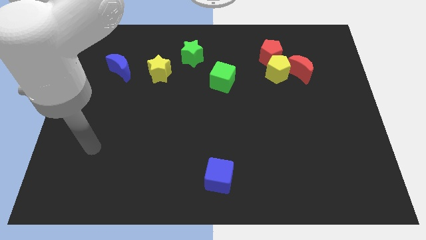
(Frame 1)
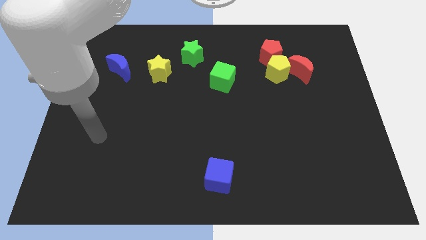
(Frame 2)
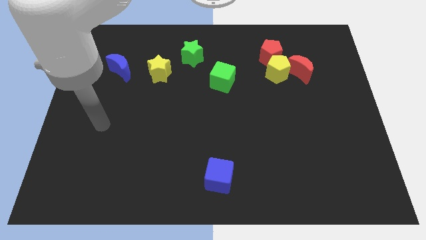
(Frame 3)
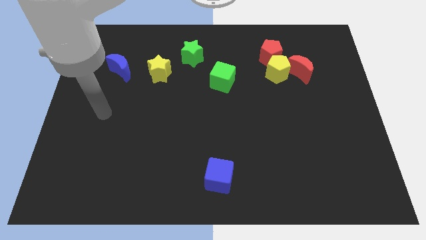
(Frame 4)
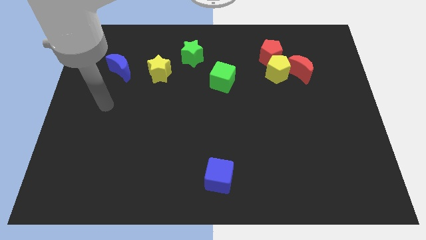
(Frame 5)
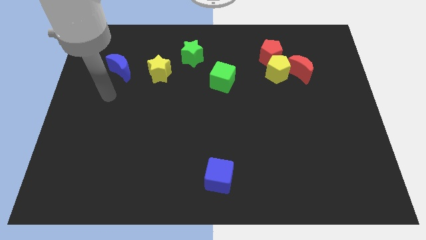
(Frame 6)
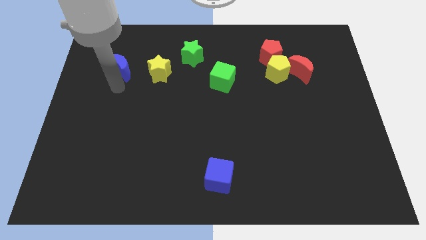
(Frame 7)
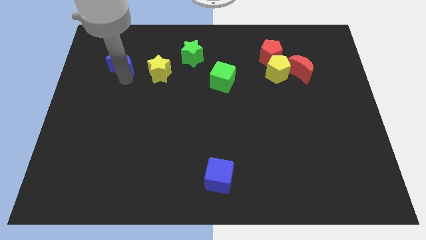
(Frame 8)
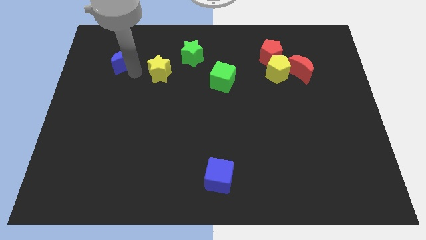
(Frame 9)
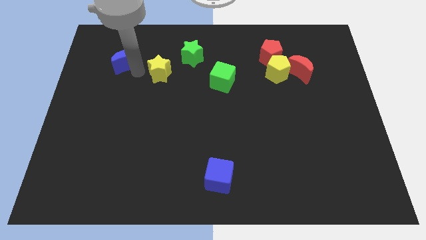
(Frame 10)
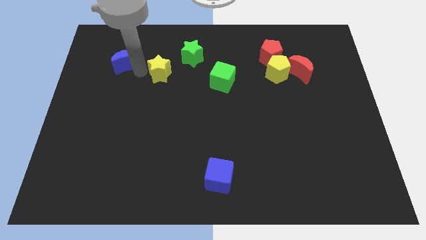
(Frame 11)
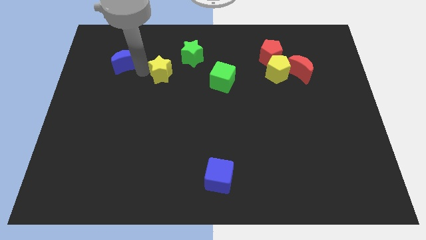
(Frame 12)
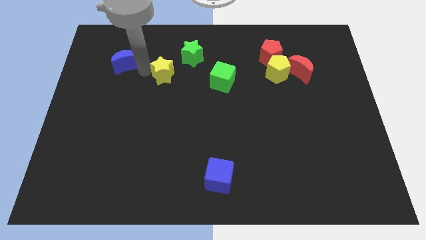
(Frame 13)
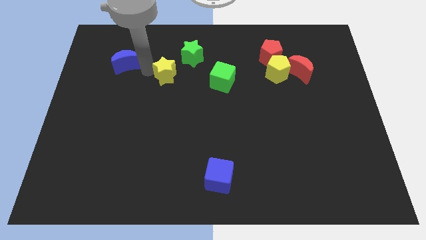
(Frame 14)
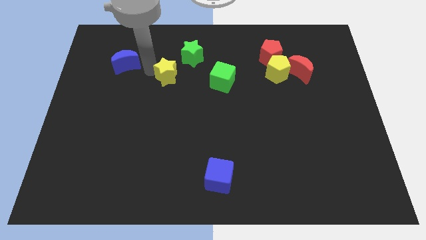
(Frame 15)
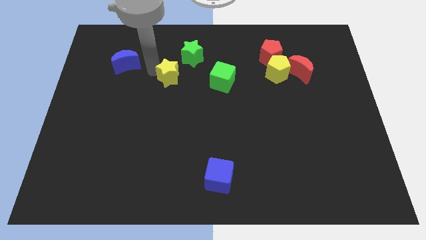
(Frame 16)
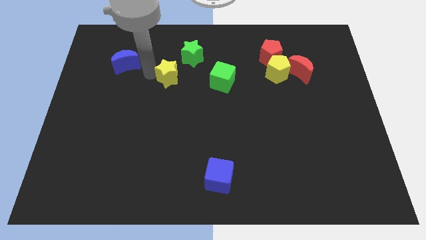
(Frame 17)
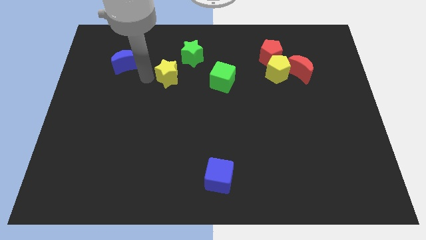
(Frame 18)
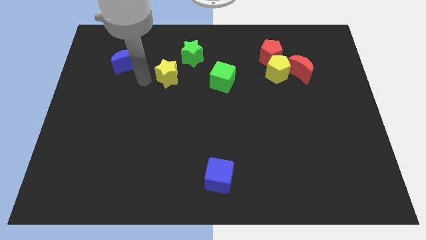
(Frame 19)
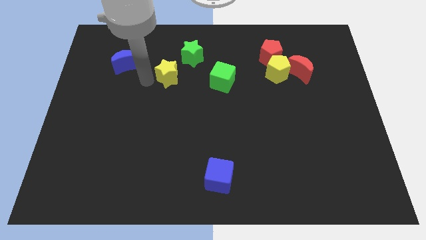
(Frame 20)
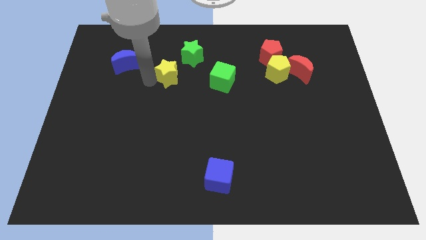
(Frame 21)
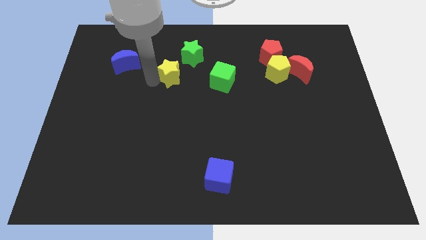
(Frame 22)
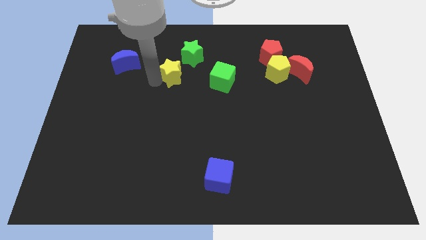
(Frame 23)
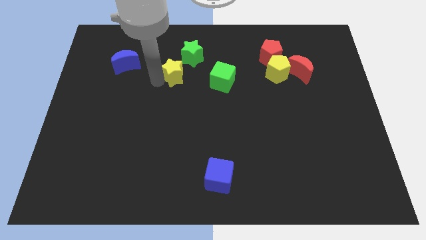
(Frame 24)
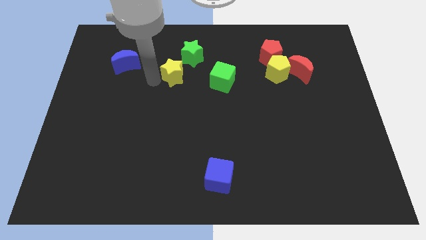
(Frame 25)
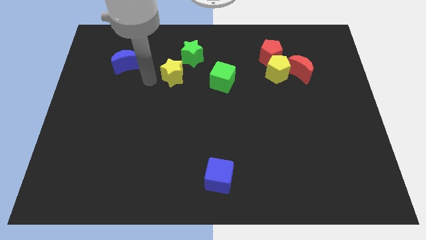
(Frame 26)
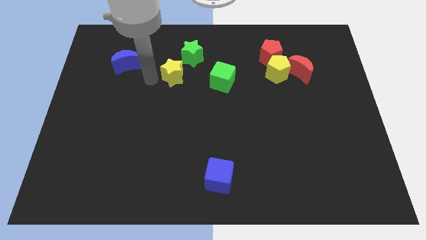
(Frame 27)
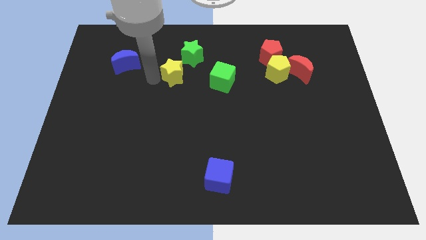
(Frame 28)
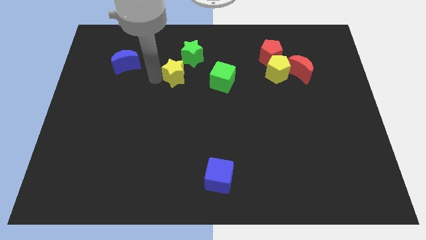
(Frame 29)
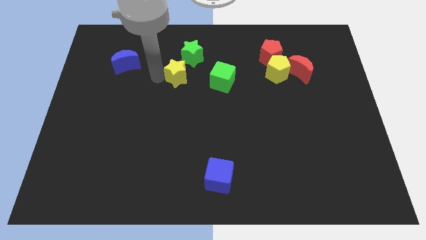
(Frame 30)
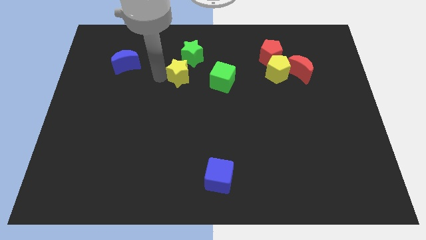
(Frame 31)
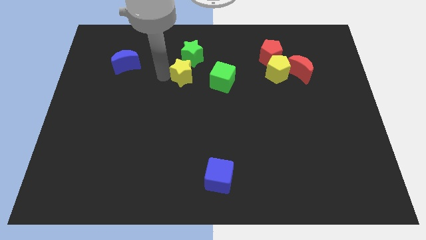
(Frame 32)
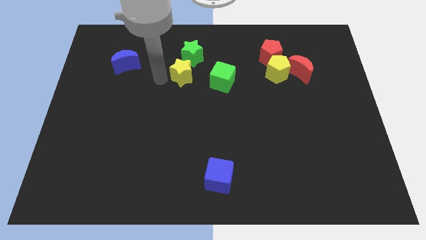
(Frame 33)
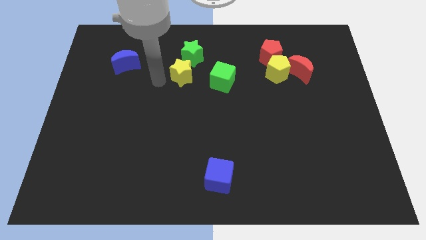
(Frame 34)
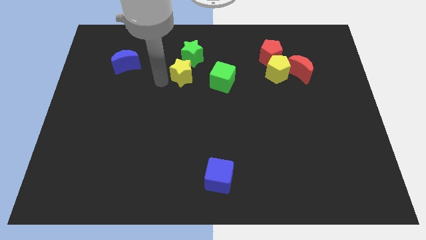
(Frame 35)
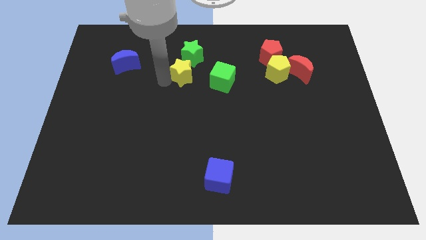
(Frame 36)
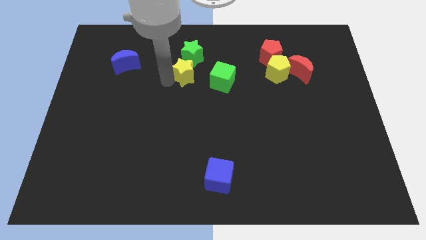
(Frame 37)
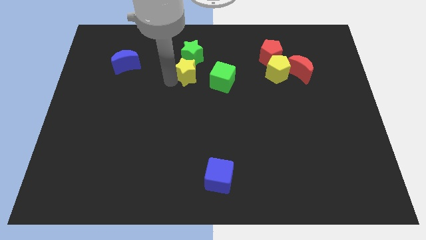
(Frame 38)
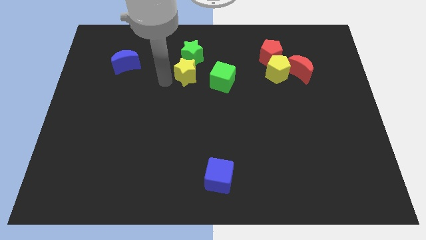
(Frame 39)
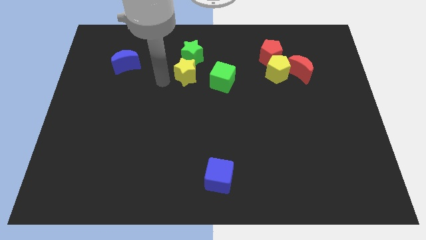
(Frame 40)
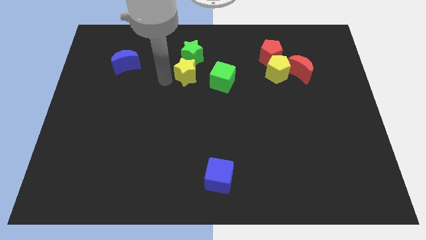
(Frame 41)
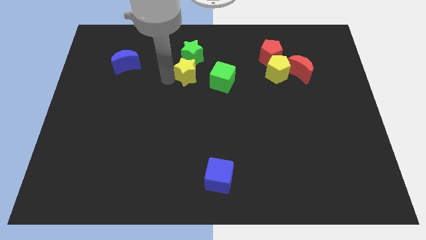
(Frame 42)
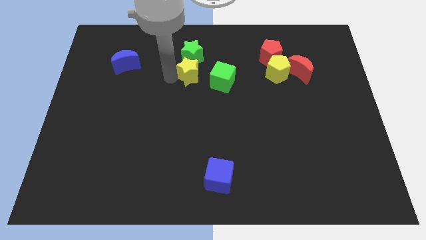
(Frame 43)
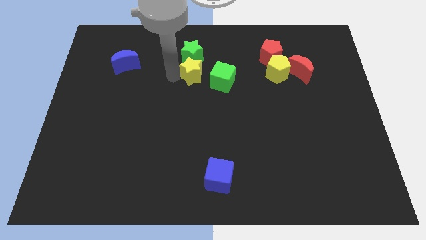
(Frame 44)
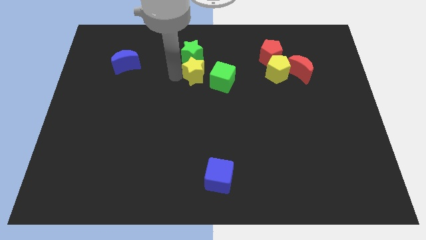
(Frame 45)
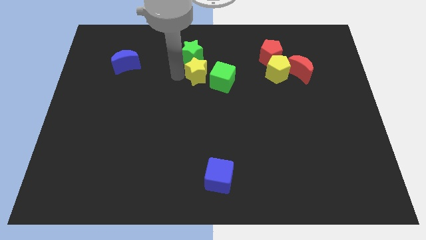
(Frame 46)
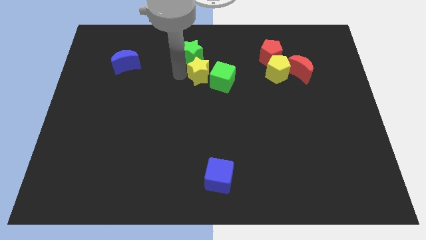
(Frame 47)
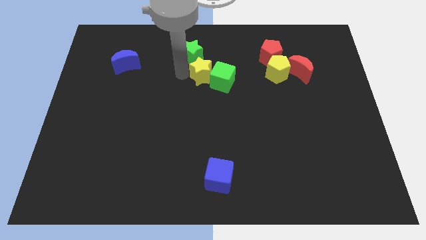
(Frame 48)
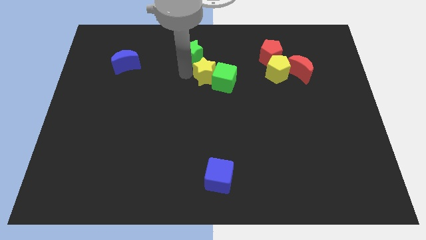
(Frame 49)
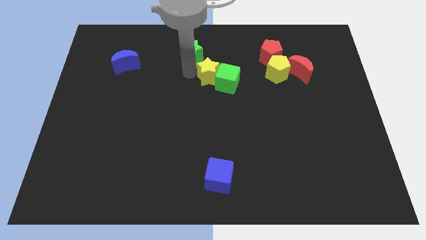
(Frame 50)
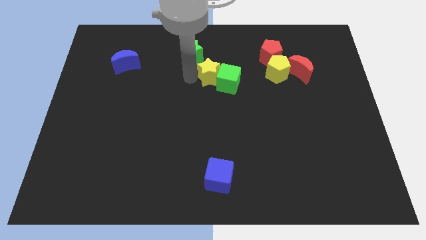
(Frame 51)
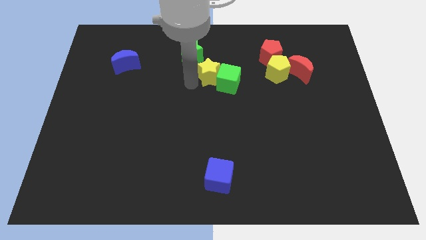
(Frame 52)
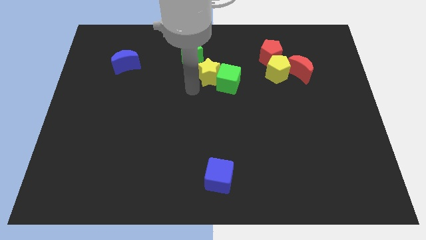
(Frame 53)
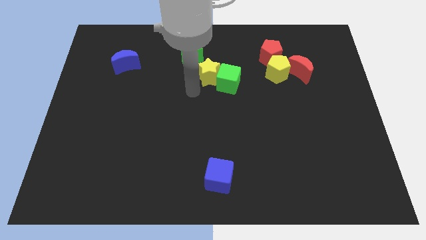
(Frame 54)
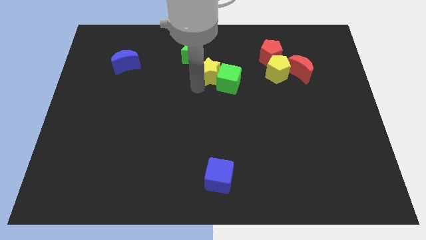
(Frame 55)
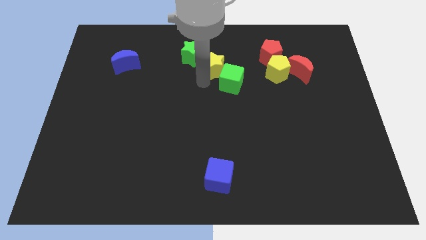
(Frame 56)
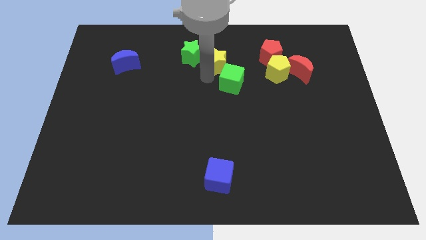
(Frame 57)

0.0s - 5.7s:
slide the yellow star left of the red pentagon
